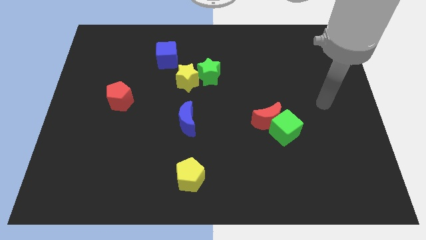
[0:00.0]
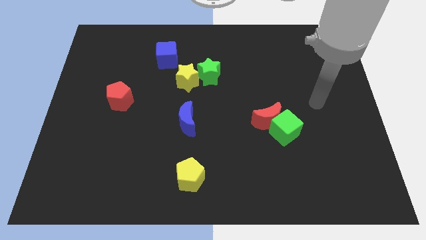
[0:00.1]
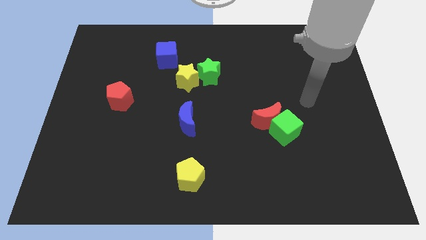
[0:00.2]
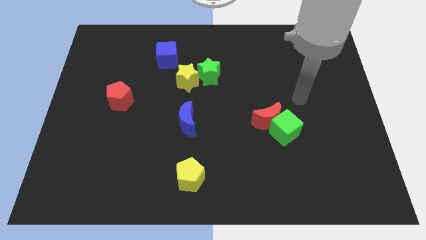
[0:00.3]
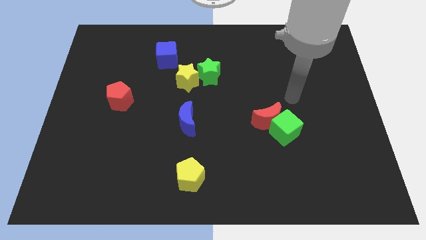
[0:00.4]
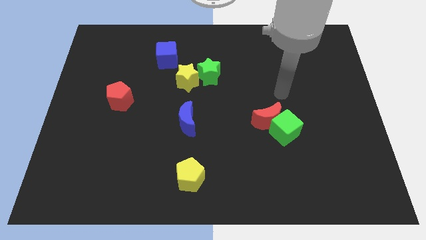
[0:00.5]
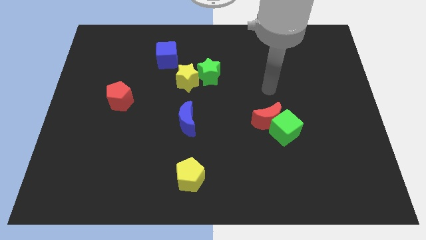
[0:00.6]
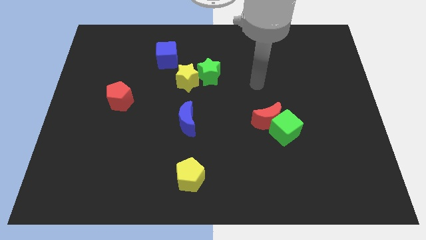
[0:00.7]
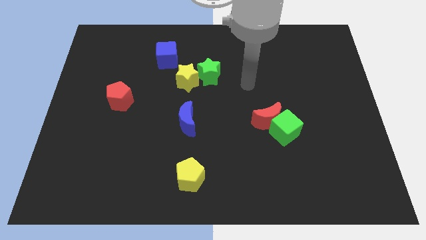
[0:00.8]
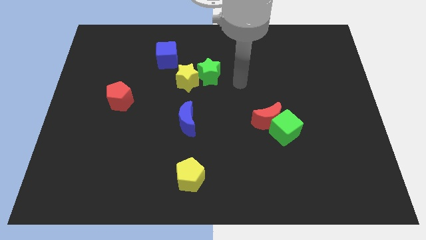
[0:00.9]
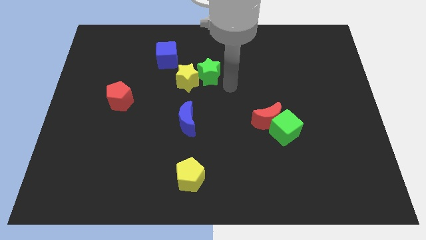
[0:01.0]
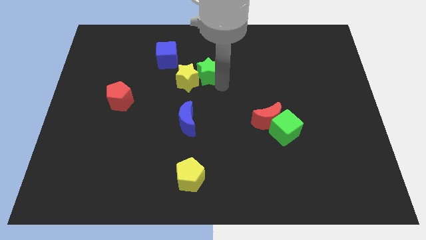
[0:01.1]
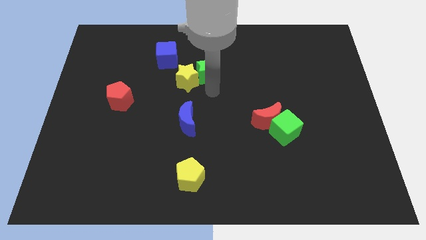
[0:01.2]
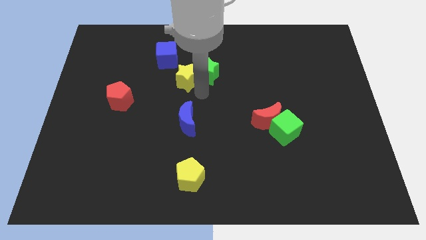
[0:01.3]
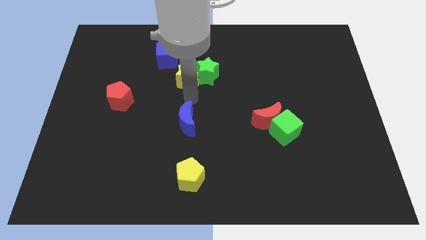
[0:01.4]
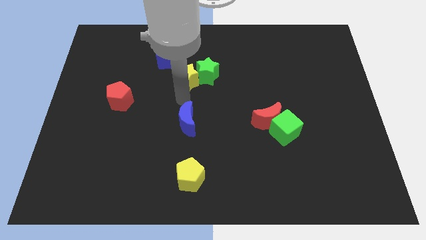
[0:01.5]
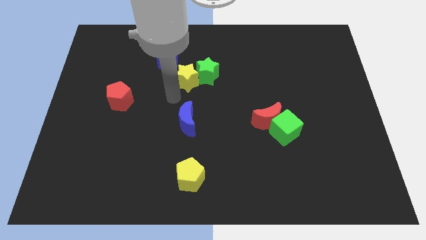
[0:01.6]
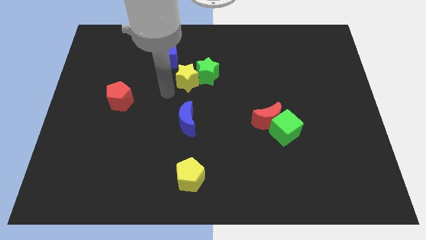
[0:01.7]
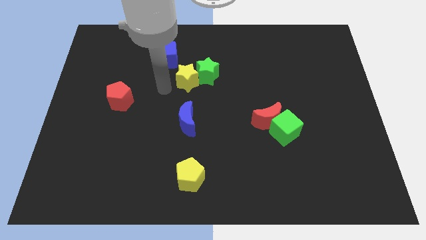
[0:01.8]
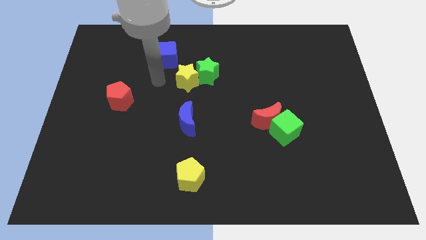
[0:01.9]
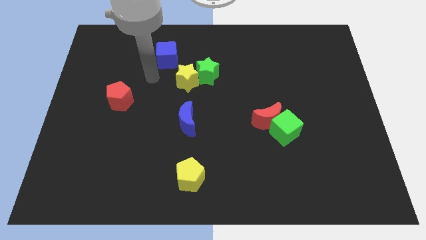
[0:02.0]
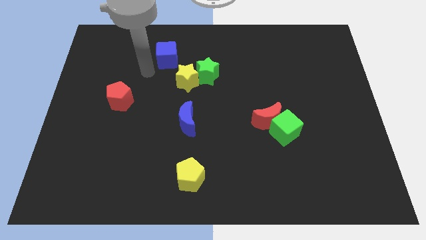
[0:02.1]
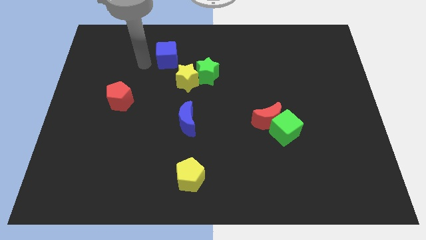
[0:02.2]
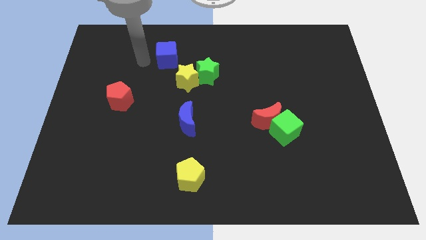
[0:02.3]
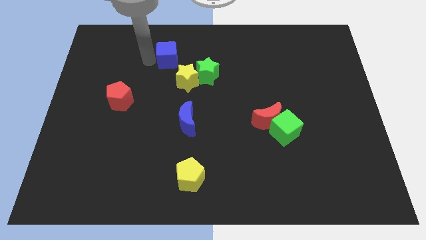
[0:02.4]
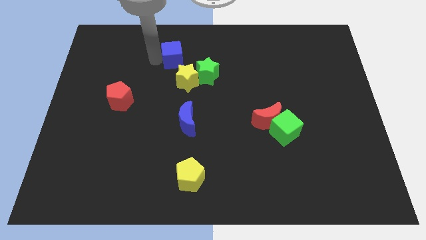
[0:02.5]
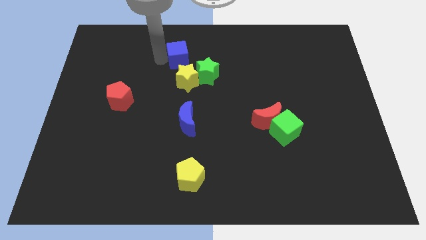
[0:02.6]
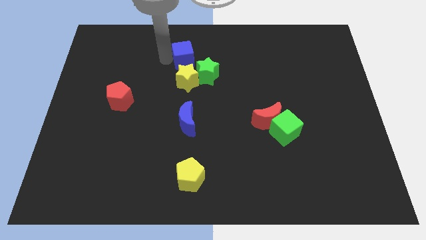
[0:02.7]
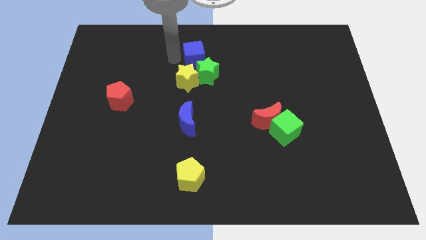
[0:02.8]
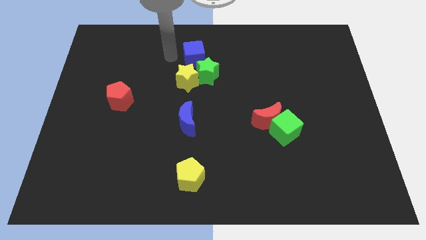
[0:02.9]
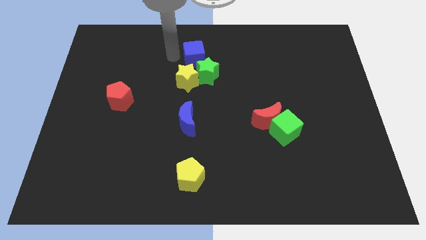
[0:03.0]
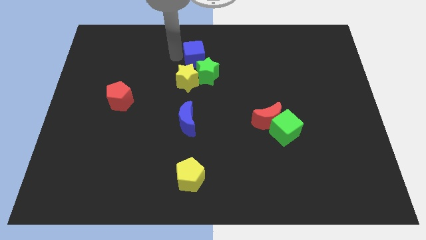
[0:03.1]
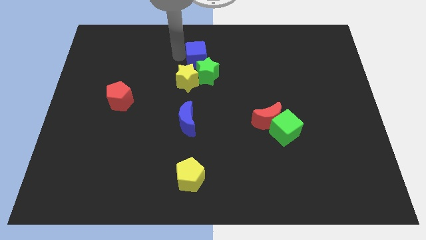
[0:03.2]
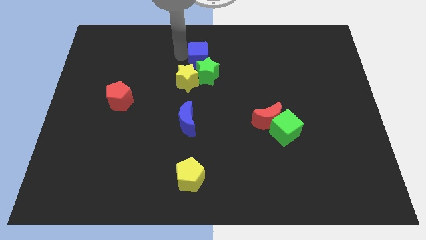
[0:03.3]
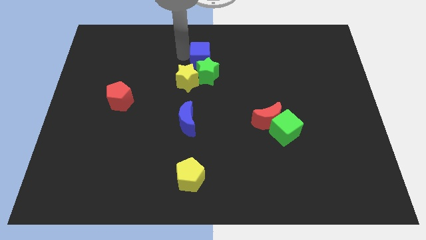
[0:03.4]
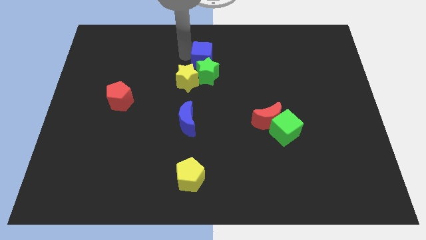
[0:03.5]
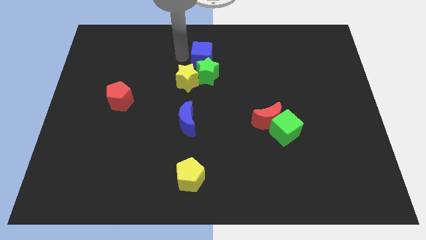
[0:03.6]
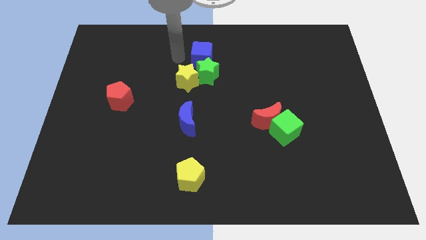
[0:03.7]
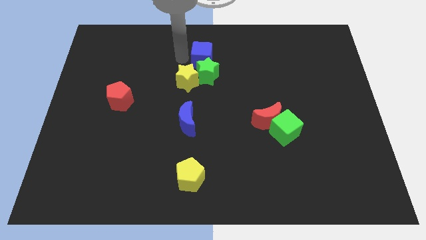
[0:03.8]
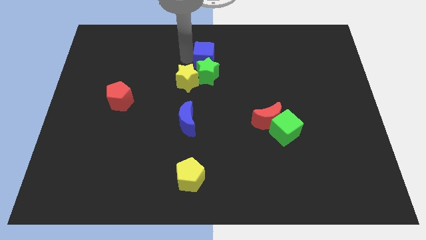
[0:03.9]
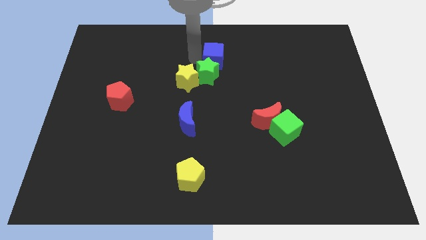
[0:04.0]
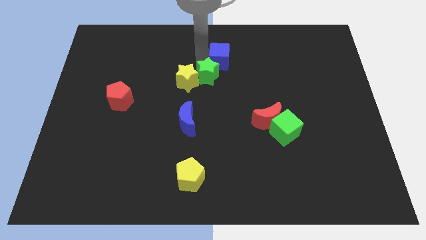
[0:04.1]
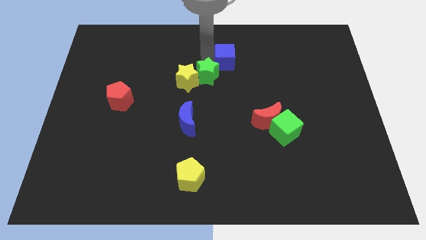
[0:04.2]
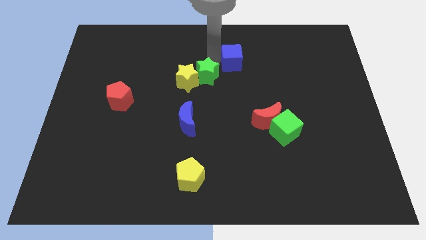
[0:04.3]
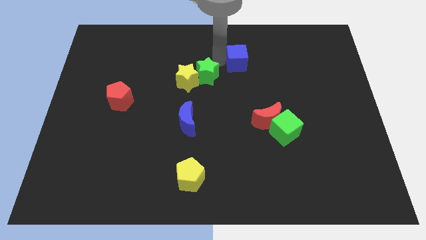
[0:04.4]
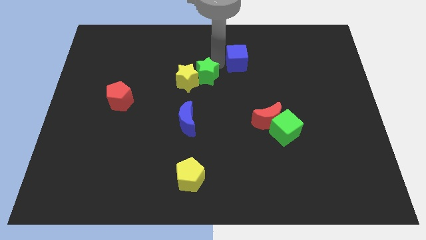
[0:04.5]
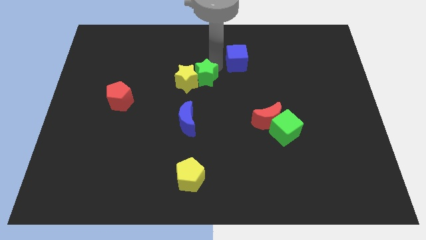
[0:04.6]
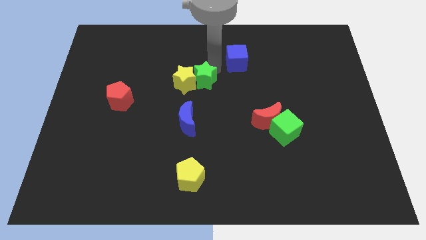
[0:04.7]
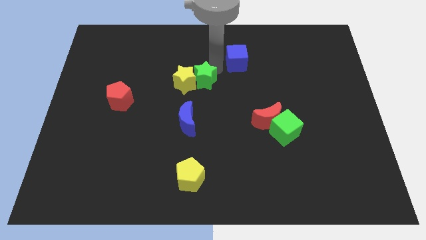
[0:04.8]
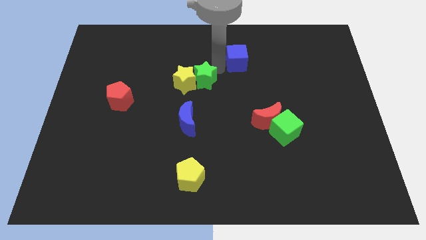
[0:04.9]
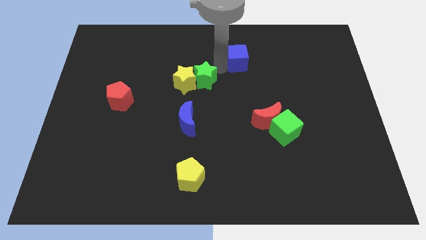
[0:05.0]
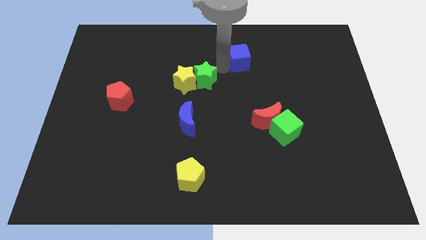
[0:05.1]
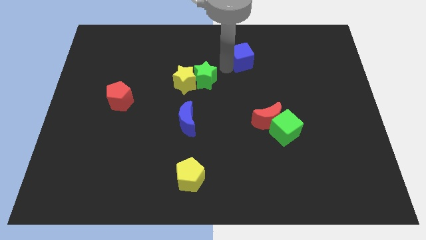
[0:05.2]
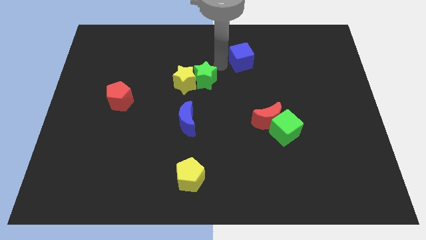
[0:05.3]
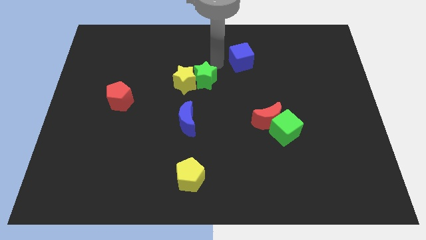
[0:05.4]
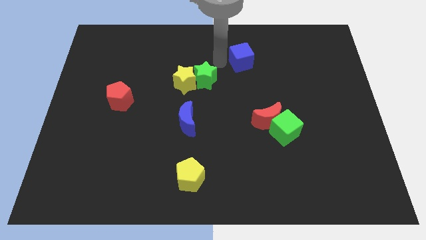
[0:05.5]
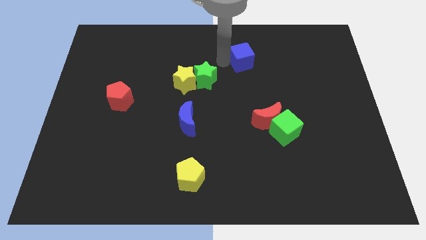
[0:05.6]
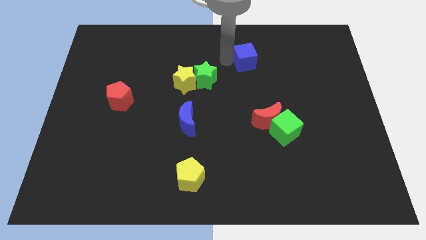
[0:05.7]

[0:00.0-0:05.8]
push the blue cube to the right

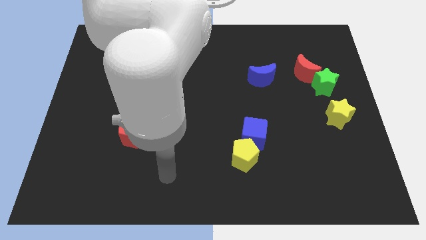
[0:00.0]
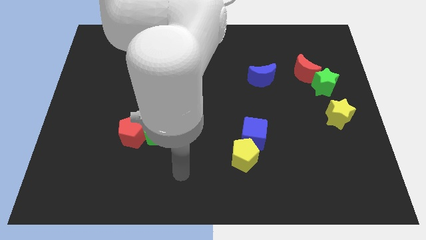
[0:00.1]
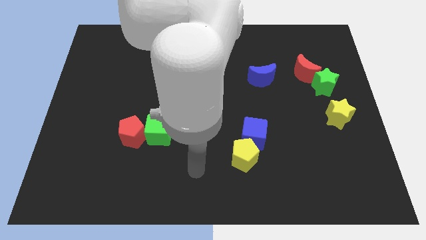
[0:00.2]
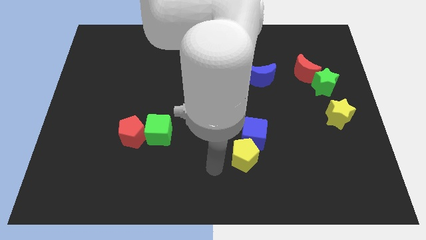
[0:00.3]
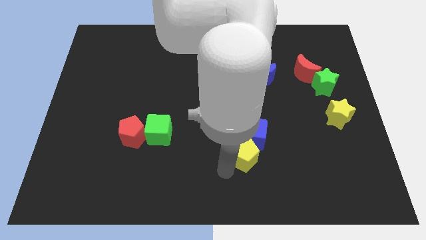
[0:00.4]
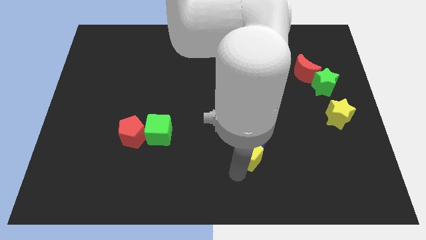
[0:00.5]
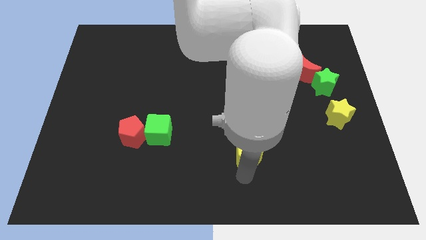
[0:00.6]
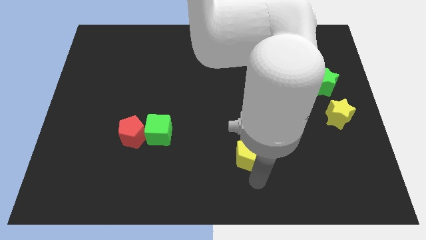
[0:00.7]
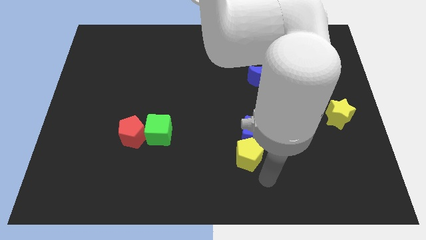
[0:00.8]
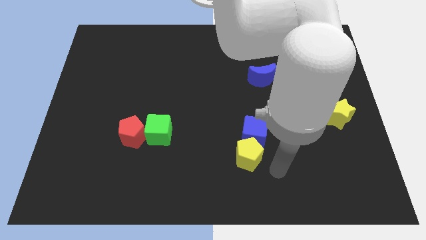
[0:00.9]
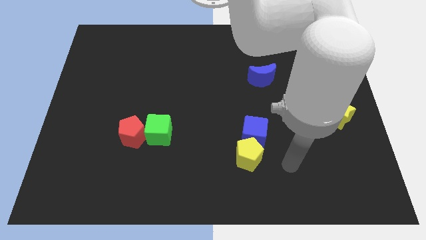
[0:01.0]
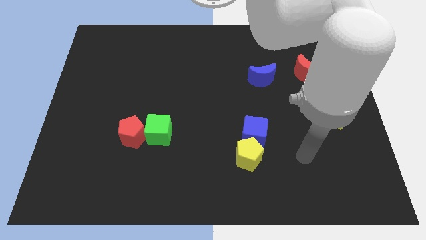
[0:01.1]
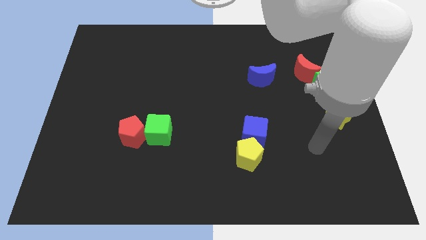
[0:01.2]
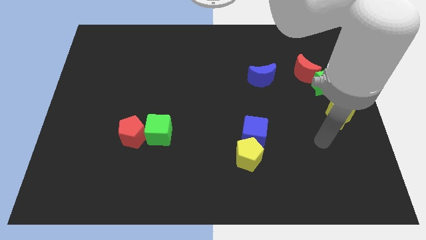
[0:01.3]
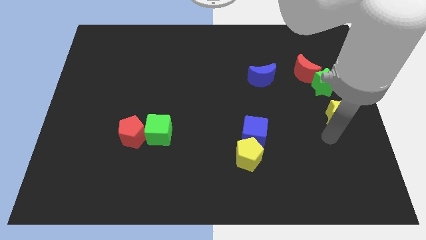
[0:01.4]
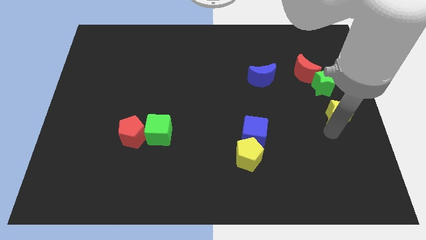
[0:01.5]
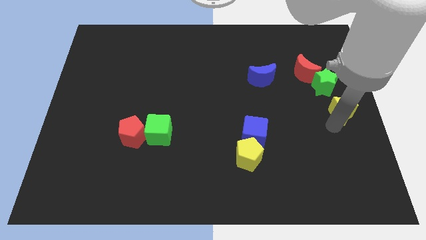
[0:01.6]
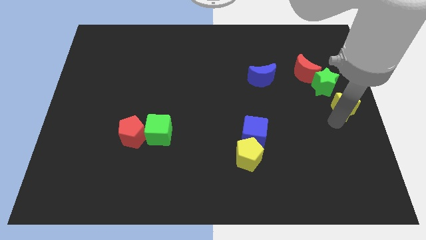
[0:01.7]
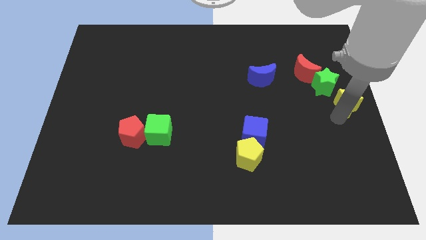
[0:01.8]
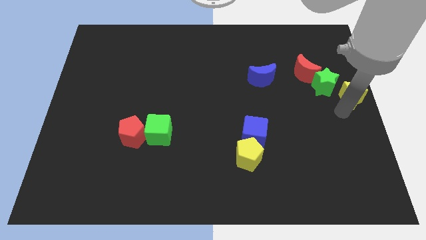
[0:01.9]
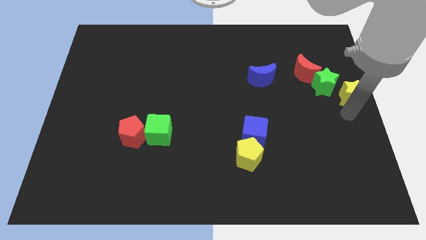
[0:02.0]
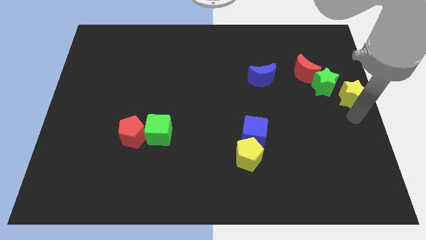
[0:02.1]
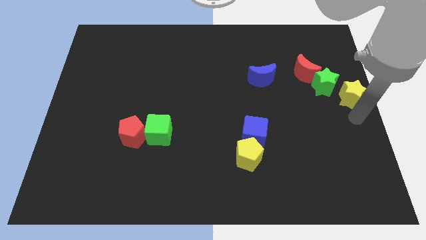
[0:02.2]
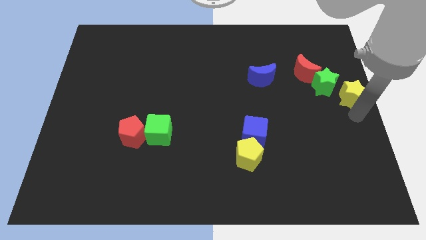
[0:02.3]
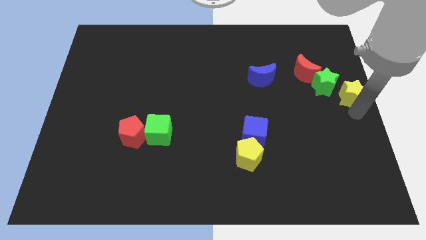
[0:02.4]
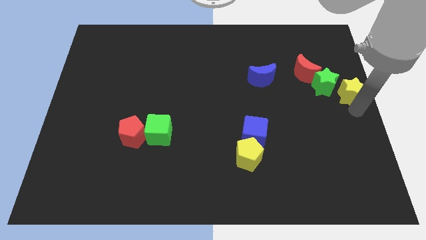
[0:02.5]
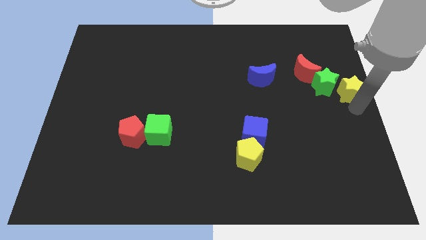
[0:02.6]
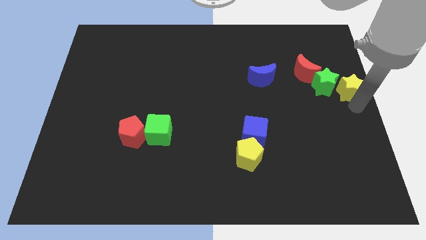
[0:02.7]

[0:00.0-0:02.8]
push the yellow star up somewhat
